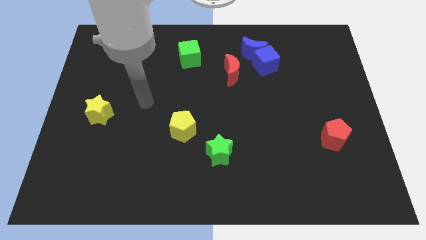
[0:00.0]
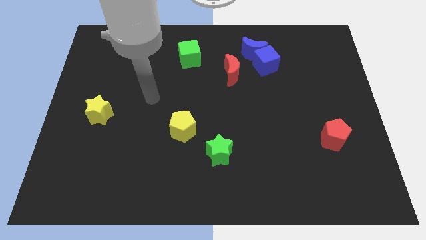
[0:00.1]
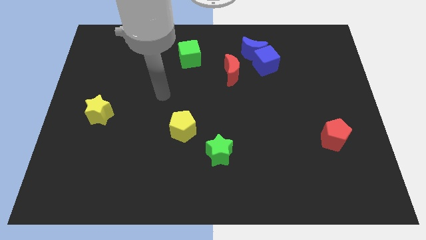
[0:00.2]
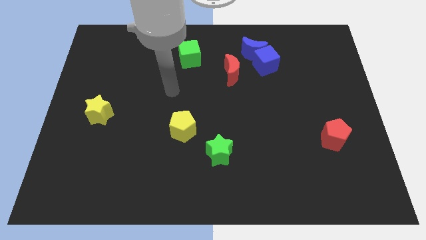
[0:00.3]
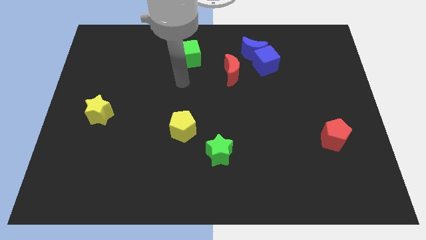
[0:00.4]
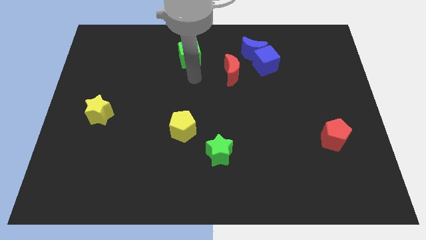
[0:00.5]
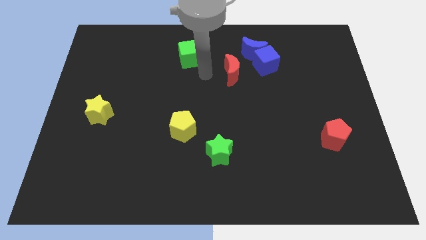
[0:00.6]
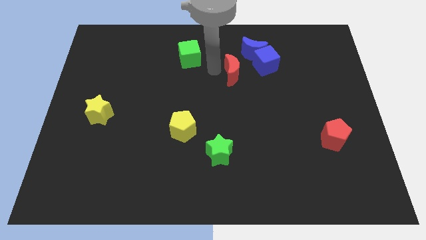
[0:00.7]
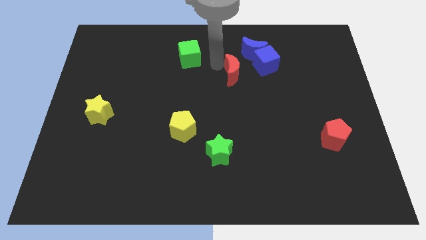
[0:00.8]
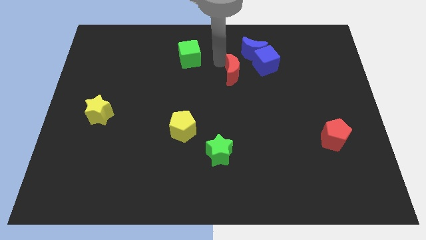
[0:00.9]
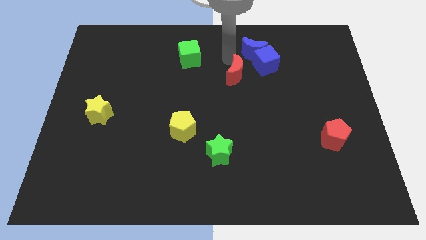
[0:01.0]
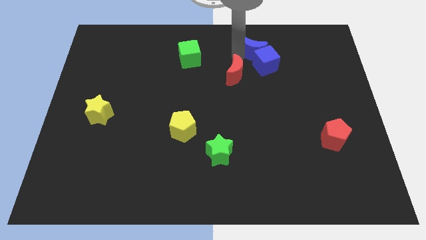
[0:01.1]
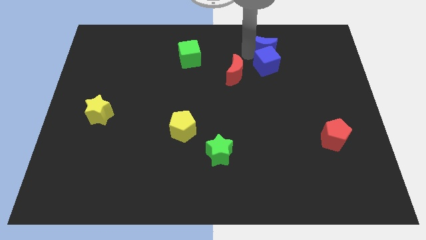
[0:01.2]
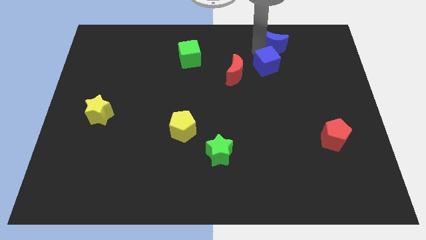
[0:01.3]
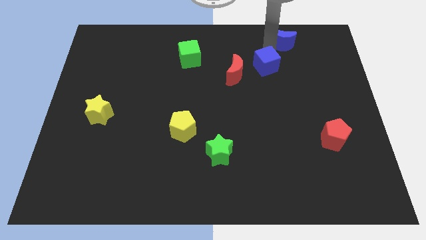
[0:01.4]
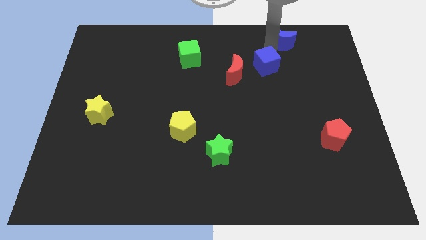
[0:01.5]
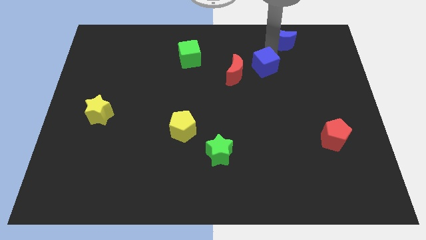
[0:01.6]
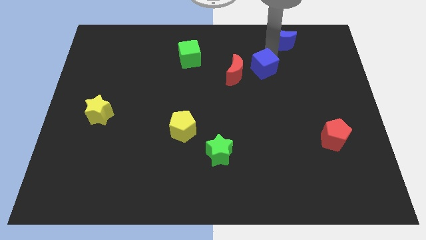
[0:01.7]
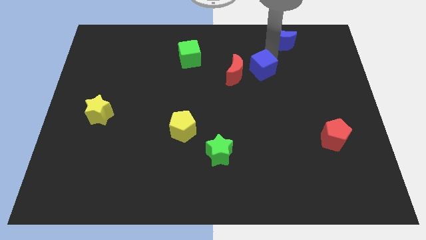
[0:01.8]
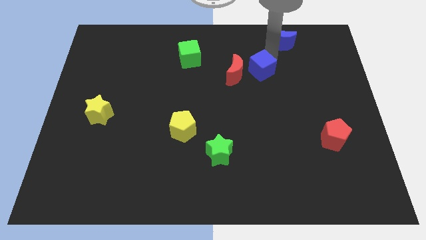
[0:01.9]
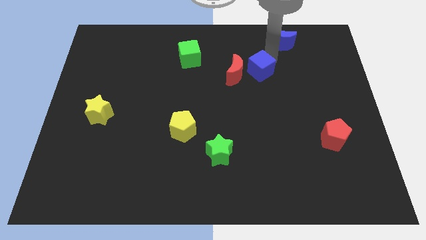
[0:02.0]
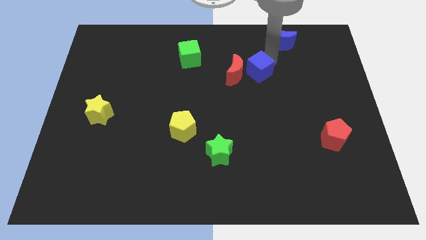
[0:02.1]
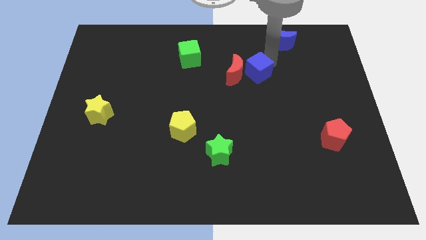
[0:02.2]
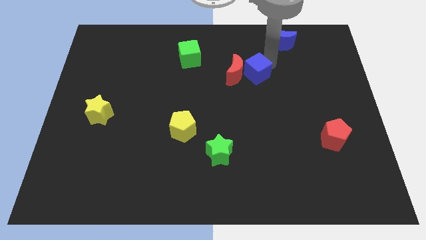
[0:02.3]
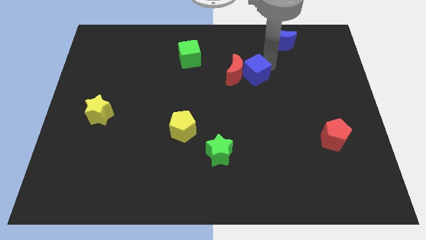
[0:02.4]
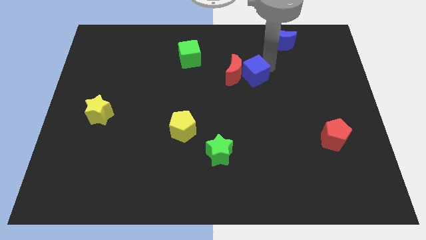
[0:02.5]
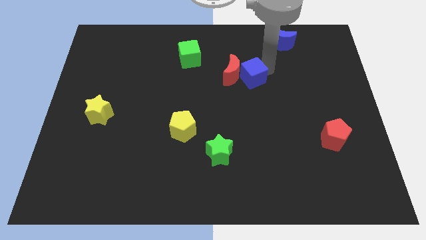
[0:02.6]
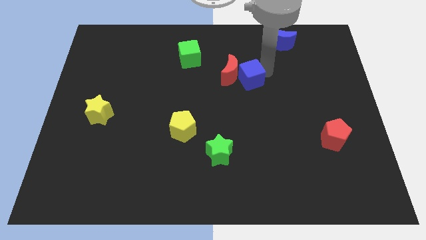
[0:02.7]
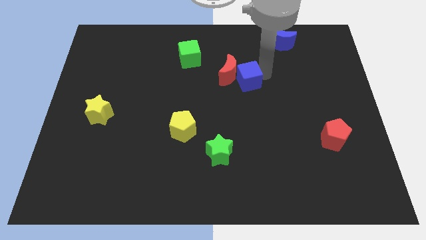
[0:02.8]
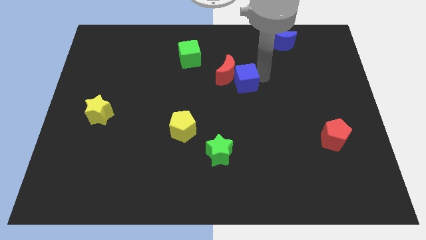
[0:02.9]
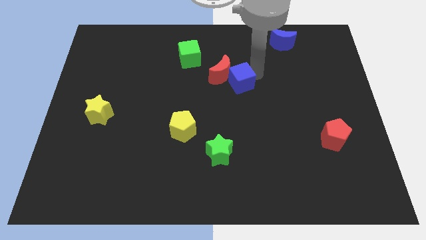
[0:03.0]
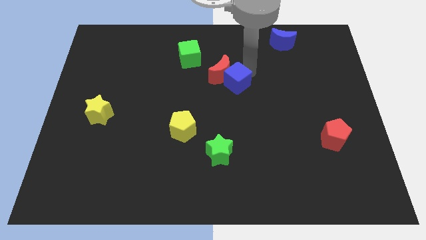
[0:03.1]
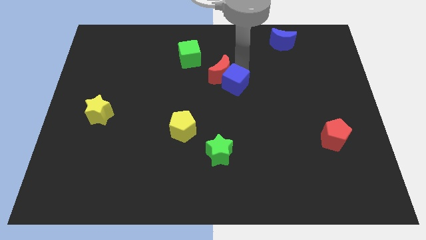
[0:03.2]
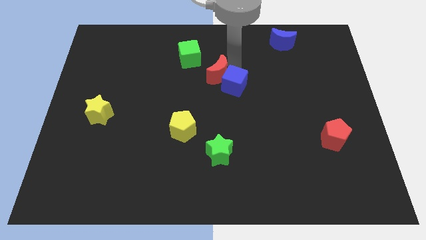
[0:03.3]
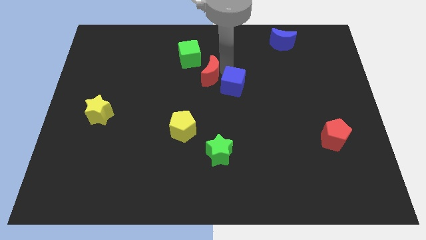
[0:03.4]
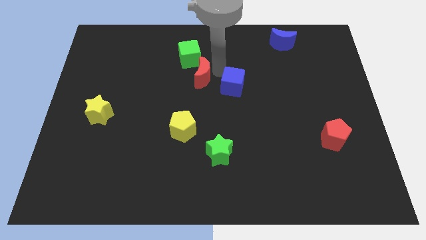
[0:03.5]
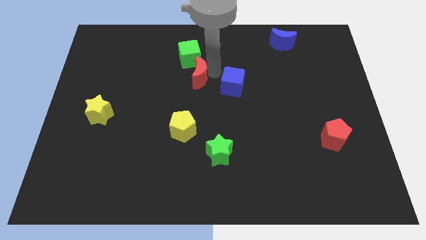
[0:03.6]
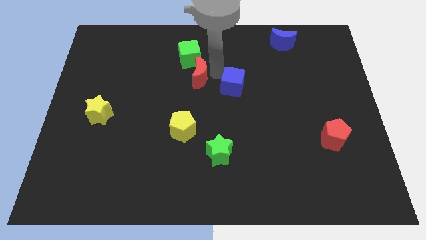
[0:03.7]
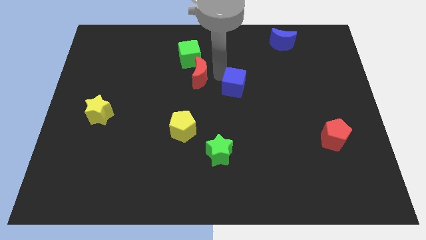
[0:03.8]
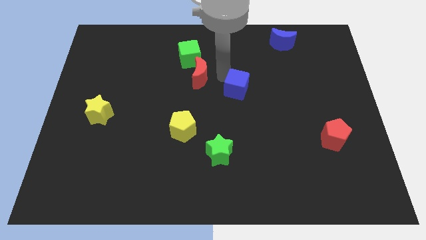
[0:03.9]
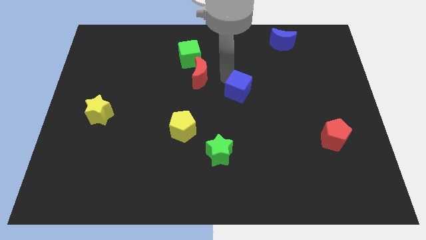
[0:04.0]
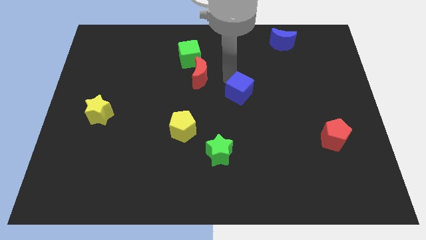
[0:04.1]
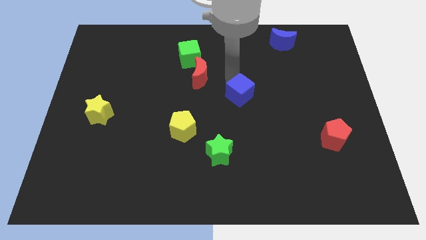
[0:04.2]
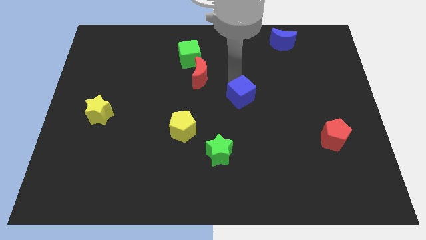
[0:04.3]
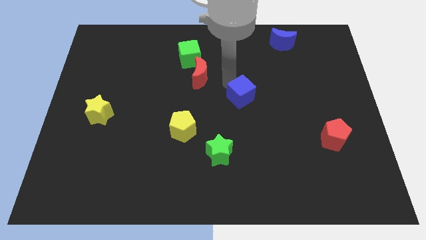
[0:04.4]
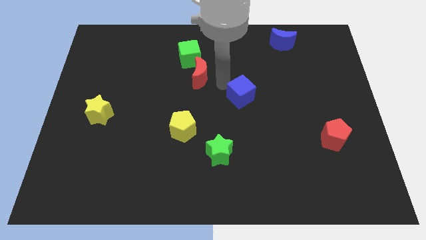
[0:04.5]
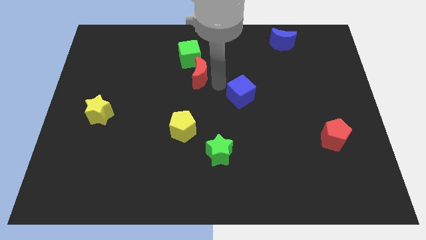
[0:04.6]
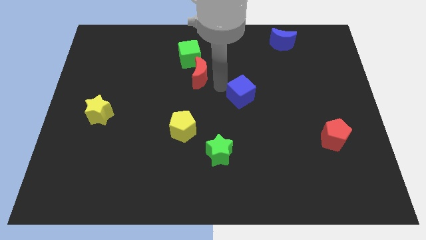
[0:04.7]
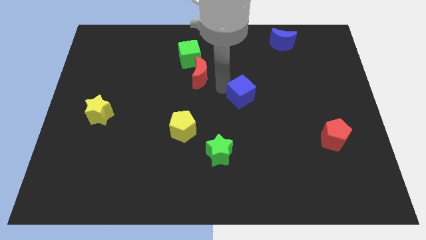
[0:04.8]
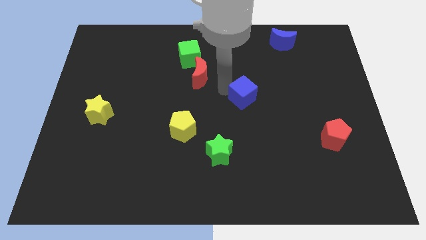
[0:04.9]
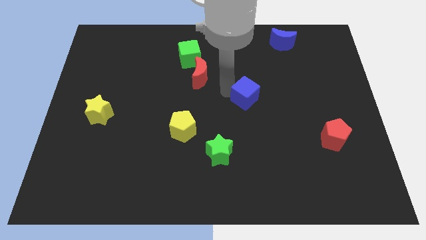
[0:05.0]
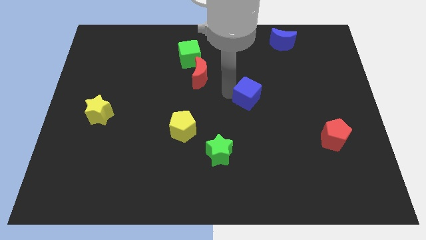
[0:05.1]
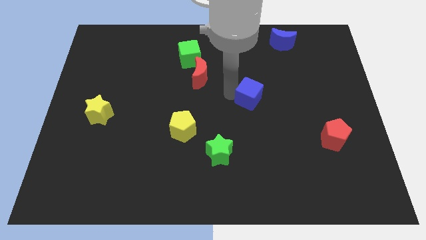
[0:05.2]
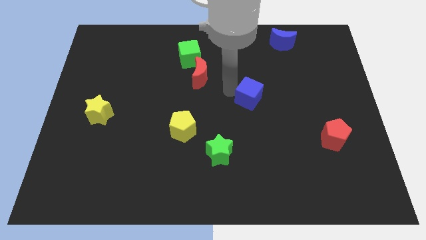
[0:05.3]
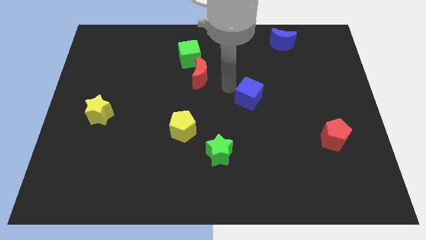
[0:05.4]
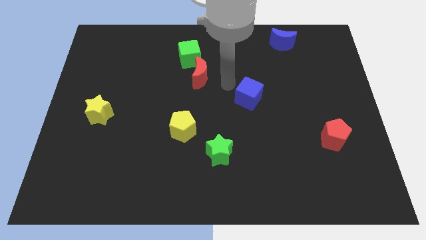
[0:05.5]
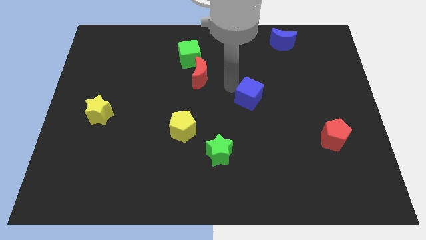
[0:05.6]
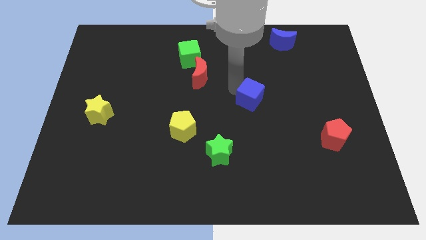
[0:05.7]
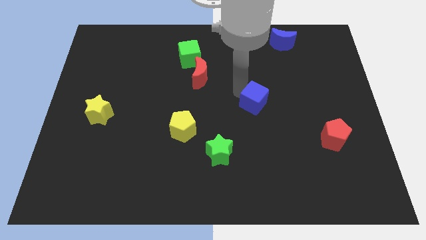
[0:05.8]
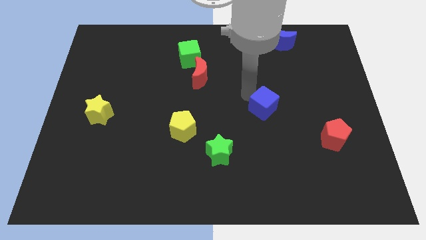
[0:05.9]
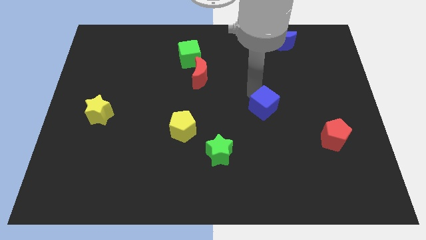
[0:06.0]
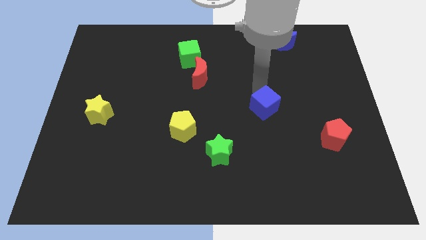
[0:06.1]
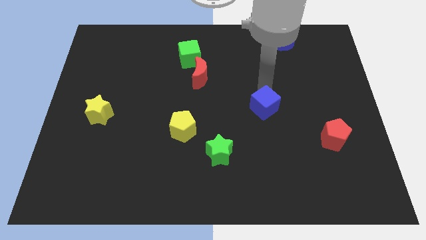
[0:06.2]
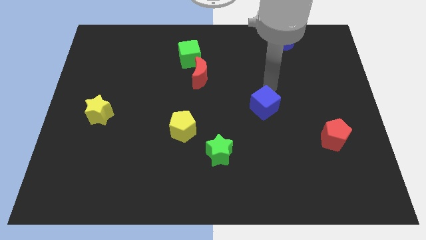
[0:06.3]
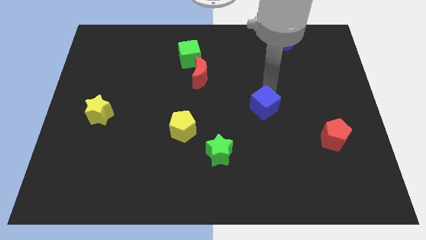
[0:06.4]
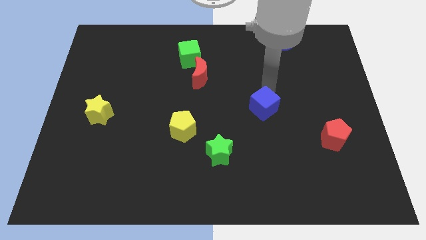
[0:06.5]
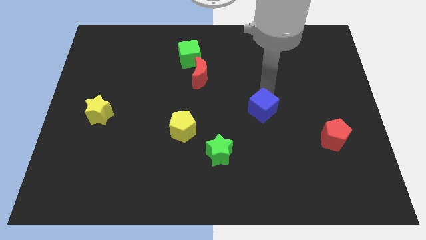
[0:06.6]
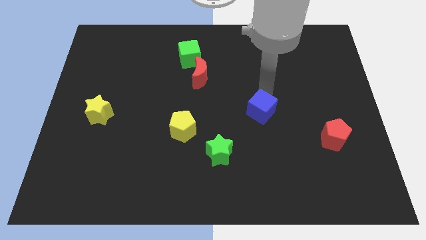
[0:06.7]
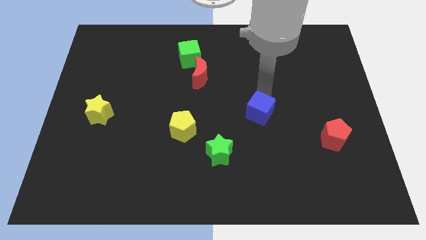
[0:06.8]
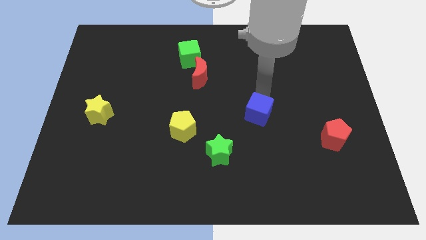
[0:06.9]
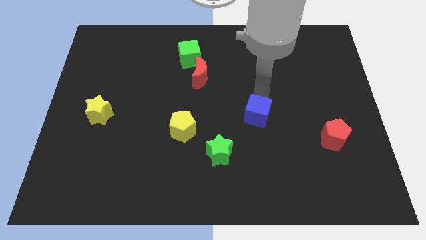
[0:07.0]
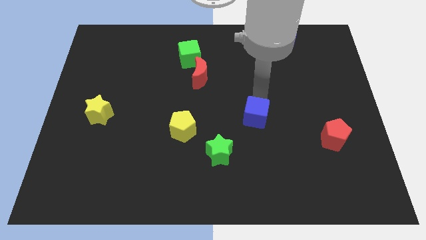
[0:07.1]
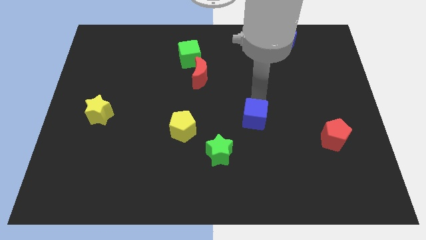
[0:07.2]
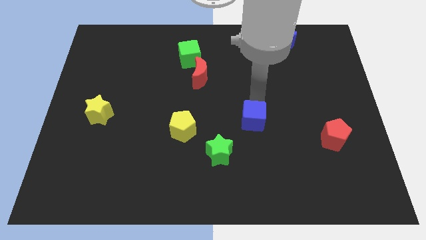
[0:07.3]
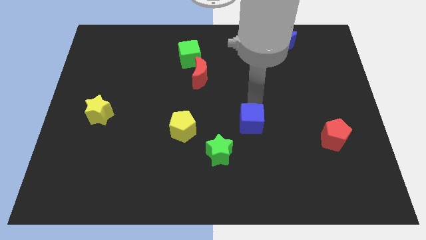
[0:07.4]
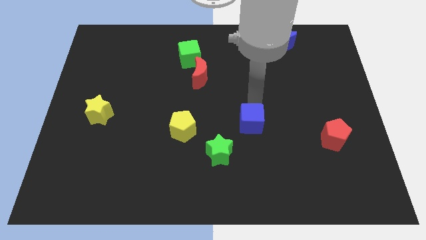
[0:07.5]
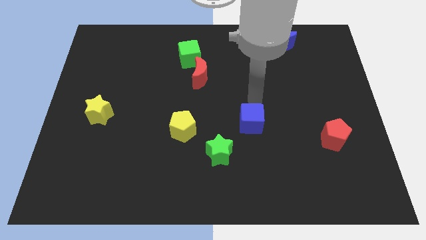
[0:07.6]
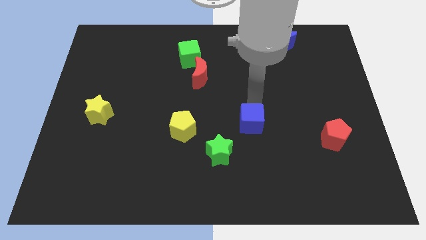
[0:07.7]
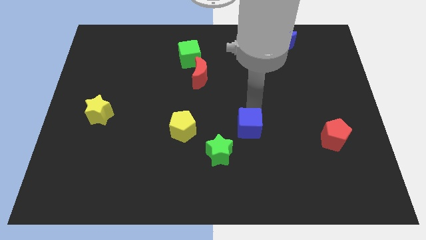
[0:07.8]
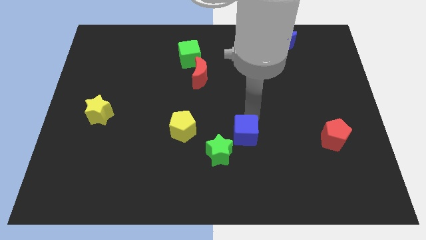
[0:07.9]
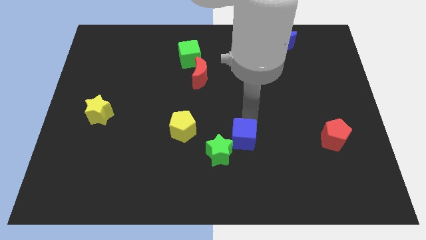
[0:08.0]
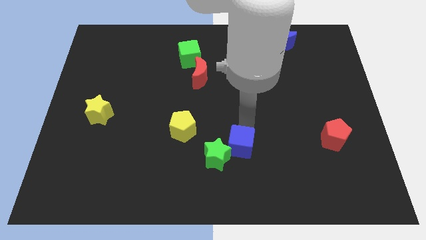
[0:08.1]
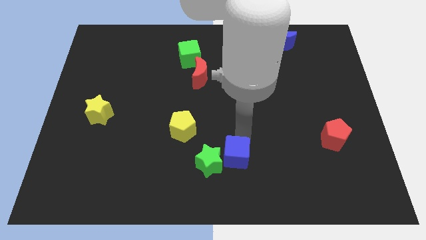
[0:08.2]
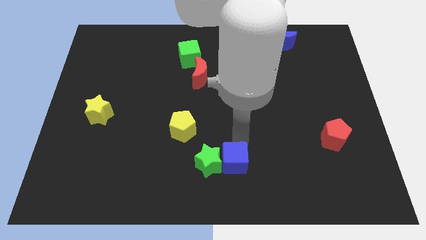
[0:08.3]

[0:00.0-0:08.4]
push the blue cube diagonally down and to the right of the green star
